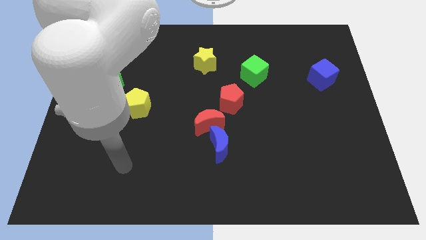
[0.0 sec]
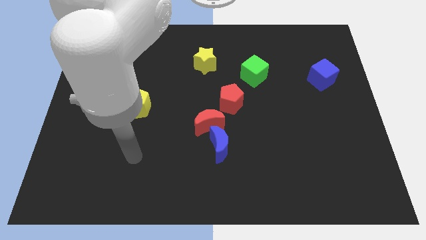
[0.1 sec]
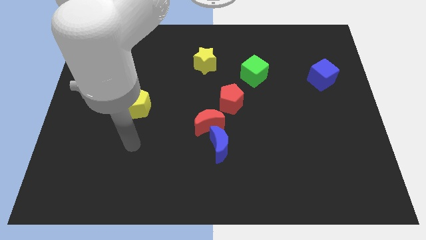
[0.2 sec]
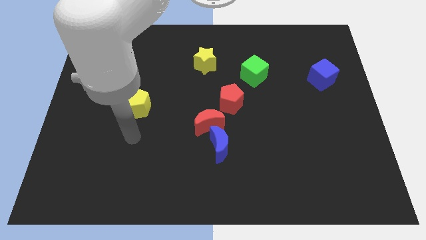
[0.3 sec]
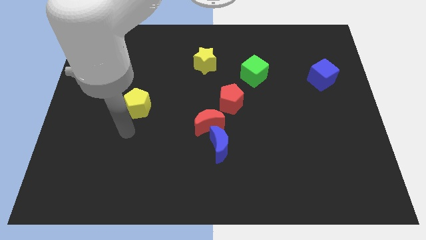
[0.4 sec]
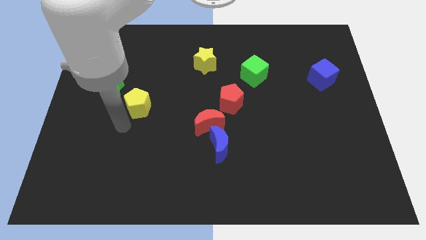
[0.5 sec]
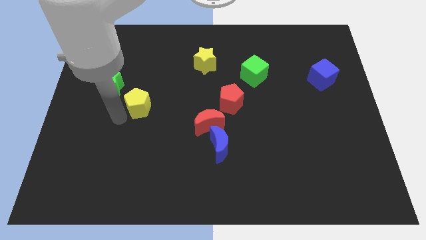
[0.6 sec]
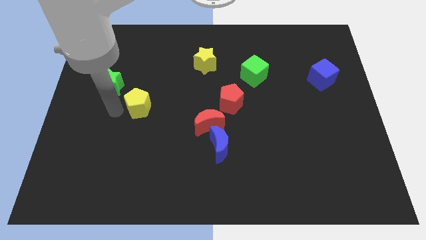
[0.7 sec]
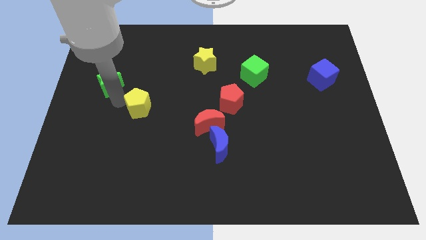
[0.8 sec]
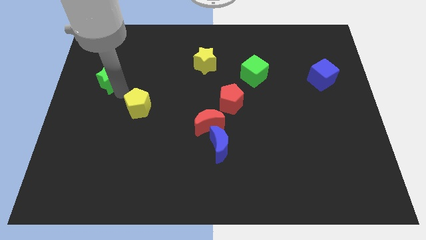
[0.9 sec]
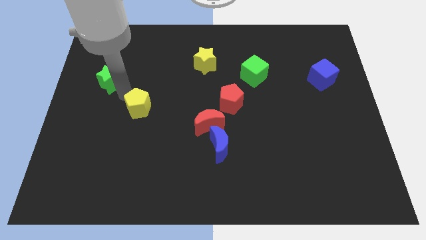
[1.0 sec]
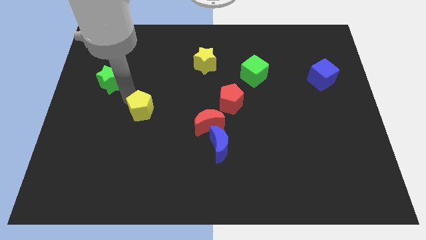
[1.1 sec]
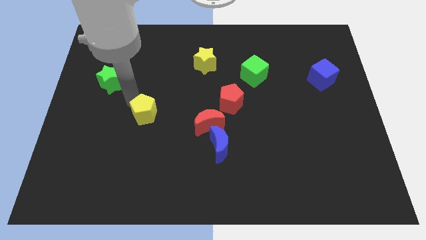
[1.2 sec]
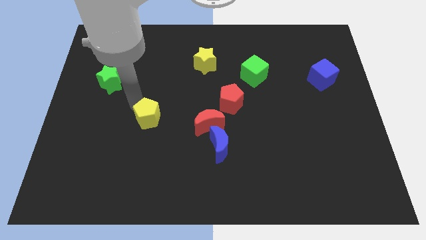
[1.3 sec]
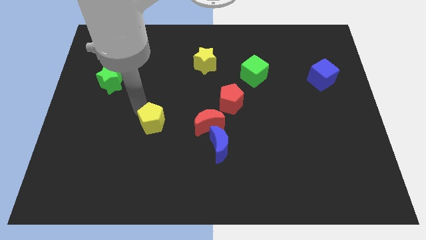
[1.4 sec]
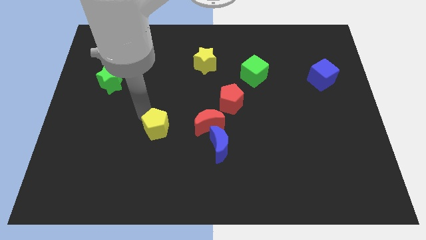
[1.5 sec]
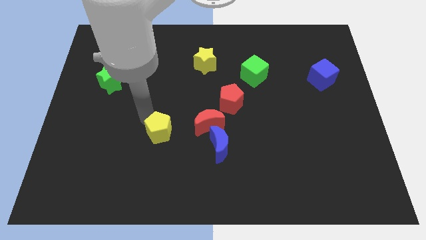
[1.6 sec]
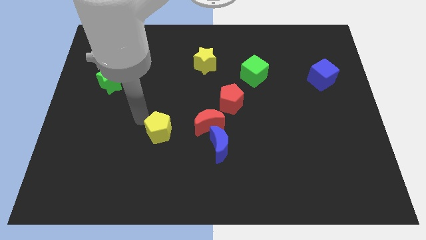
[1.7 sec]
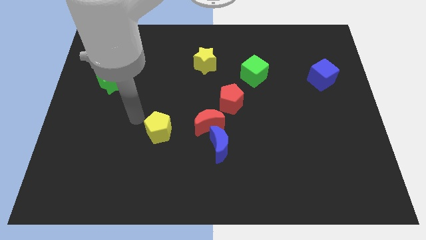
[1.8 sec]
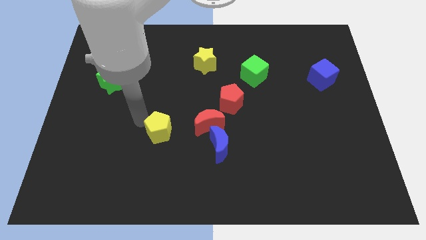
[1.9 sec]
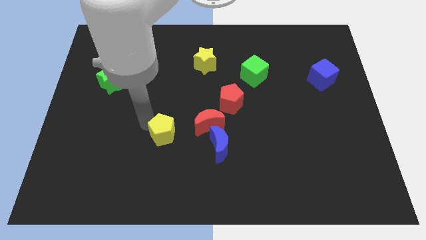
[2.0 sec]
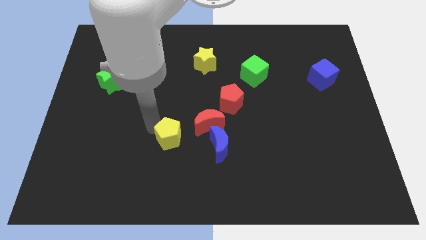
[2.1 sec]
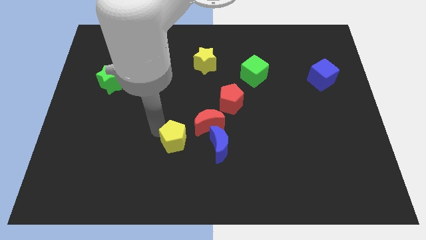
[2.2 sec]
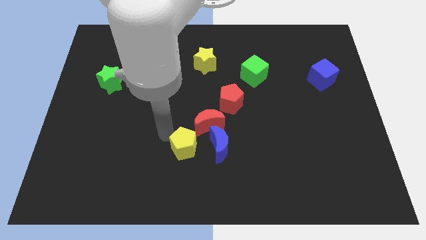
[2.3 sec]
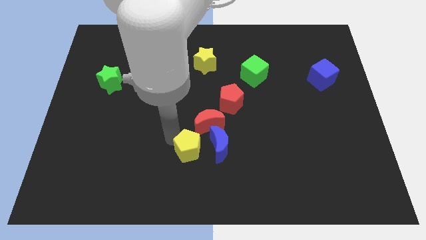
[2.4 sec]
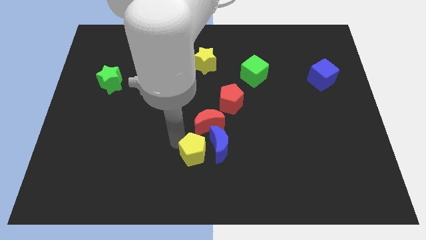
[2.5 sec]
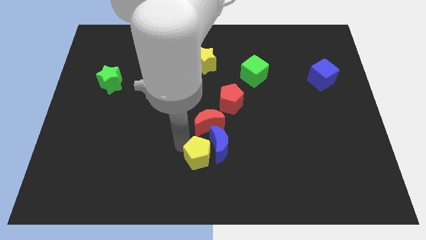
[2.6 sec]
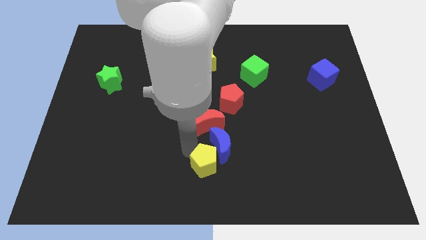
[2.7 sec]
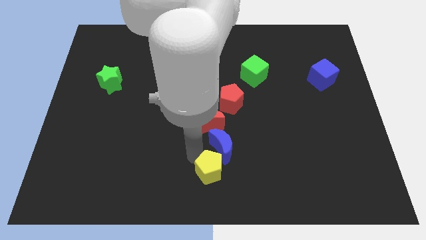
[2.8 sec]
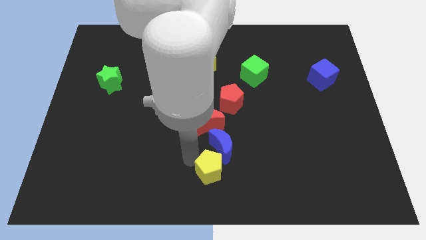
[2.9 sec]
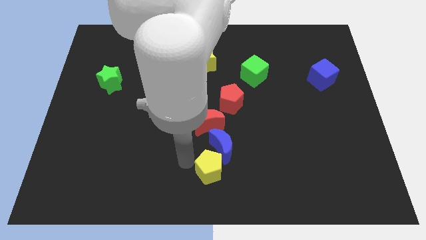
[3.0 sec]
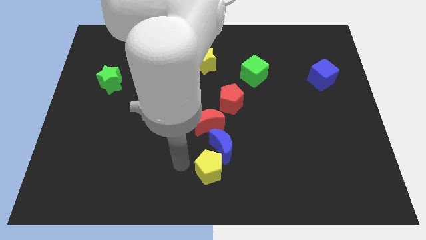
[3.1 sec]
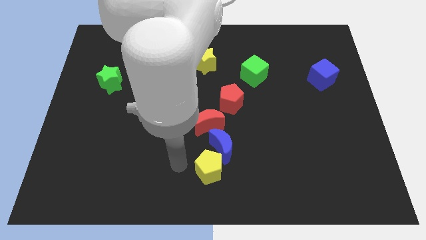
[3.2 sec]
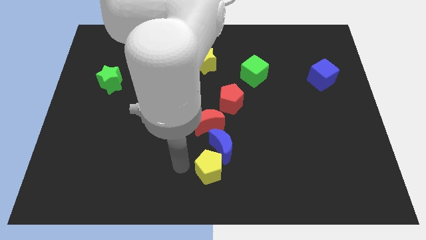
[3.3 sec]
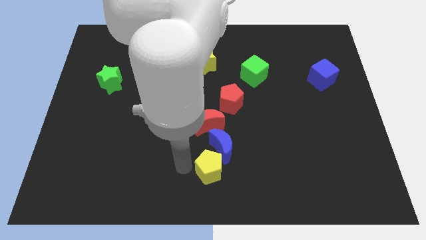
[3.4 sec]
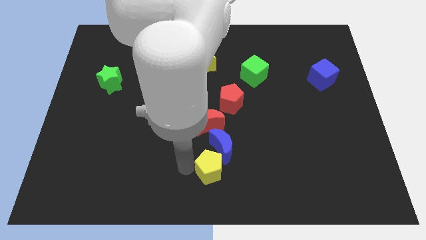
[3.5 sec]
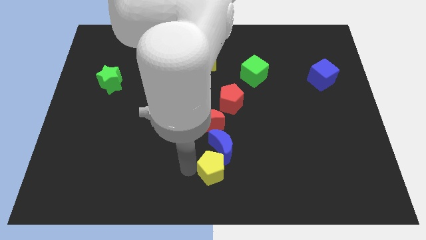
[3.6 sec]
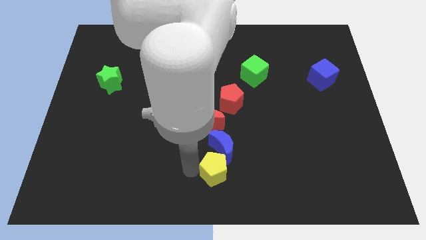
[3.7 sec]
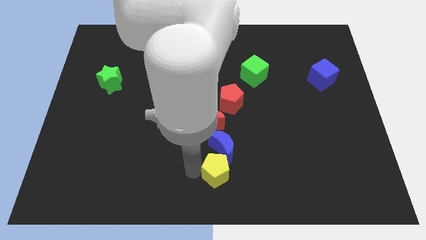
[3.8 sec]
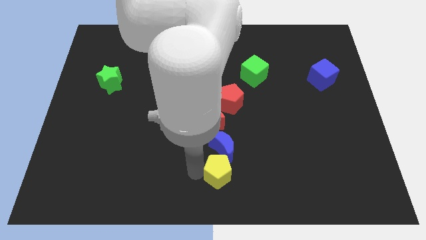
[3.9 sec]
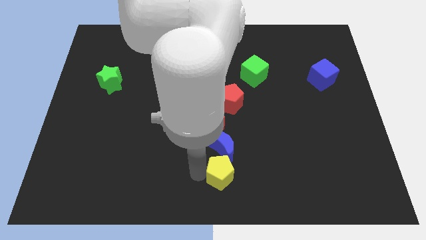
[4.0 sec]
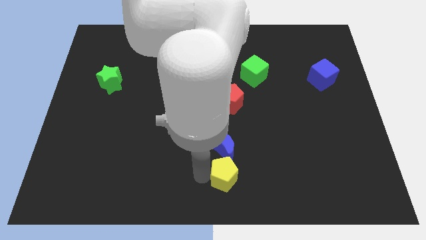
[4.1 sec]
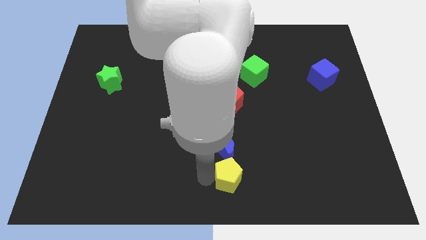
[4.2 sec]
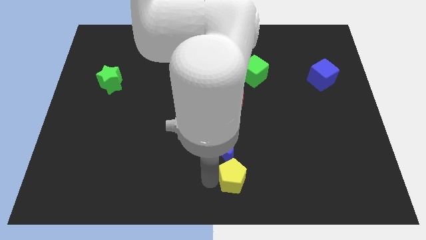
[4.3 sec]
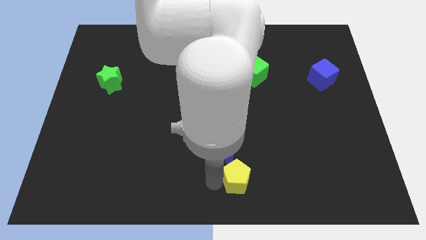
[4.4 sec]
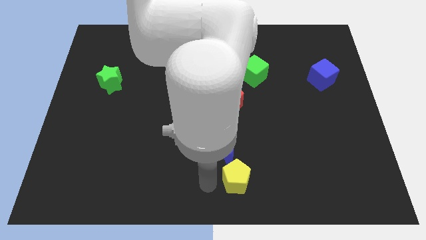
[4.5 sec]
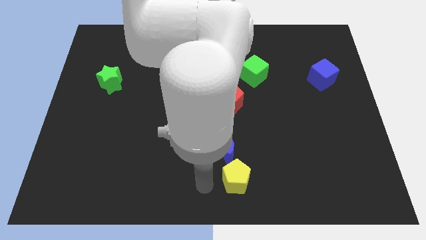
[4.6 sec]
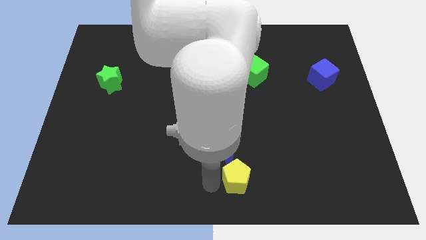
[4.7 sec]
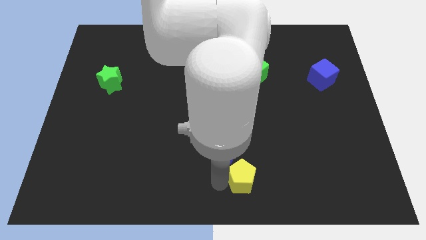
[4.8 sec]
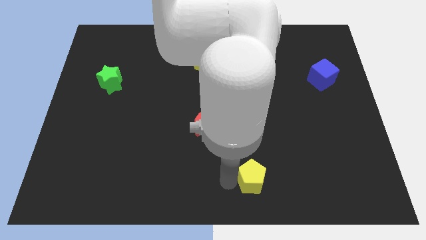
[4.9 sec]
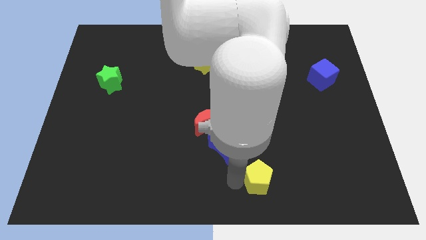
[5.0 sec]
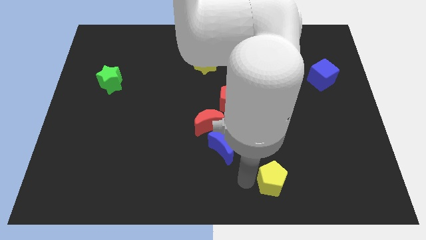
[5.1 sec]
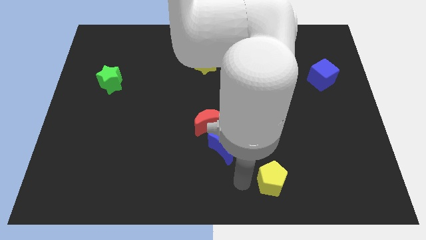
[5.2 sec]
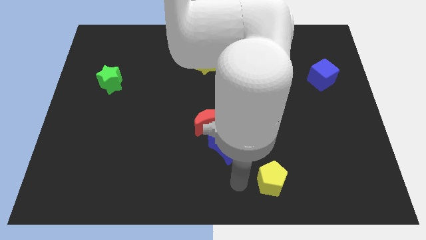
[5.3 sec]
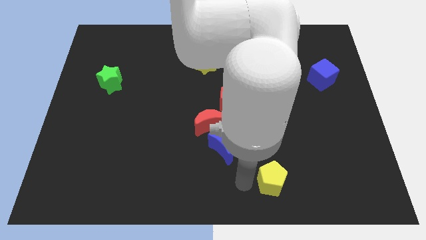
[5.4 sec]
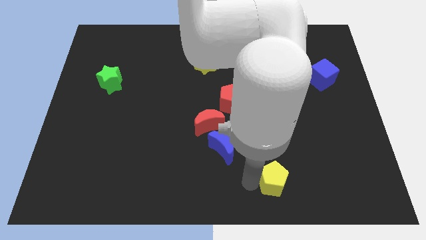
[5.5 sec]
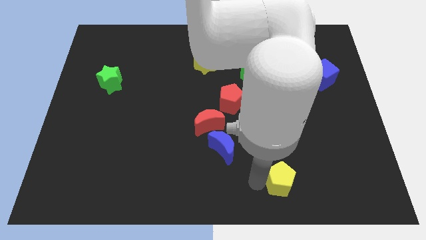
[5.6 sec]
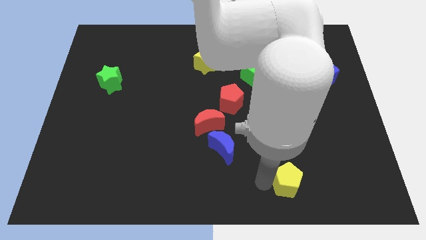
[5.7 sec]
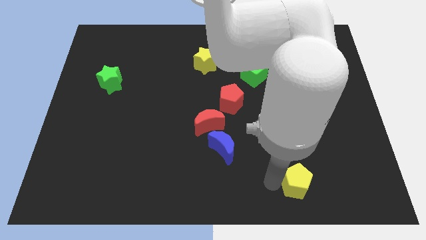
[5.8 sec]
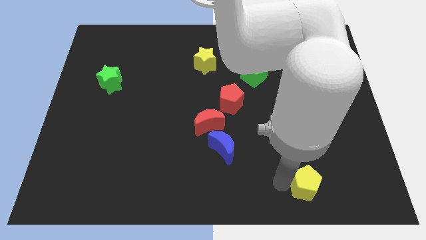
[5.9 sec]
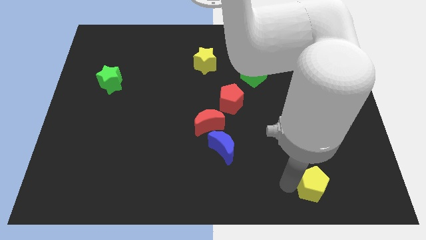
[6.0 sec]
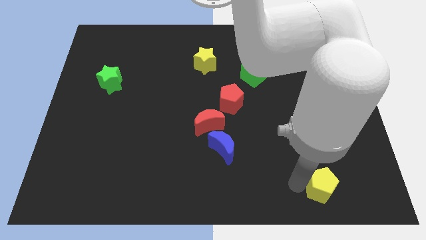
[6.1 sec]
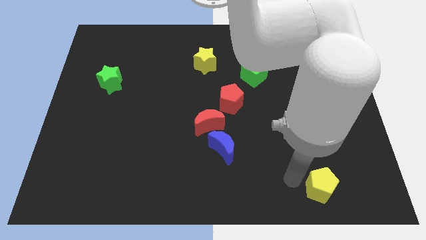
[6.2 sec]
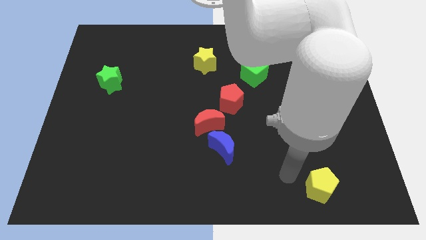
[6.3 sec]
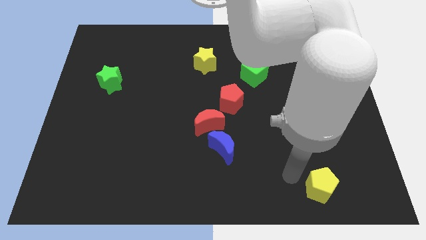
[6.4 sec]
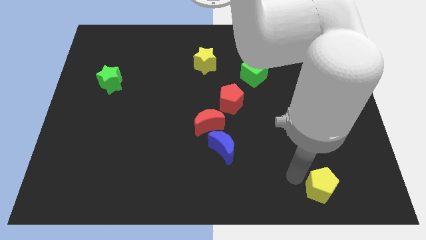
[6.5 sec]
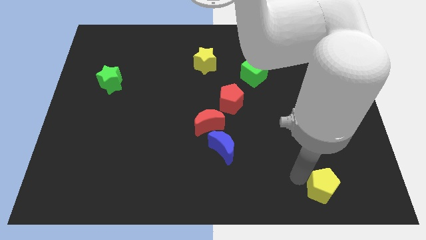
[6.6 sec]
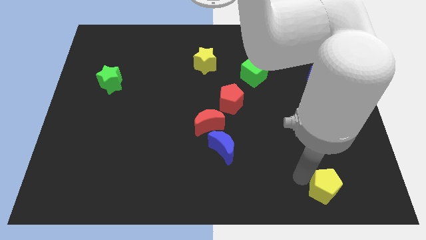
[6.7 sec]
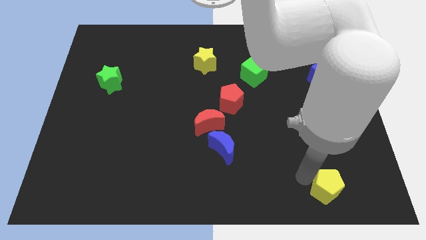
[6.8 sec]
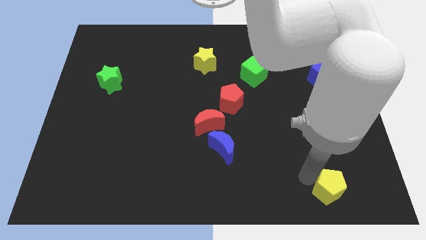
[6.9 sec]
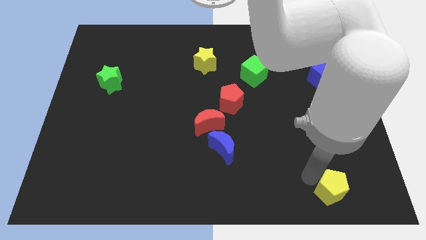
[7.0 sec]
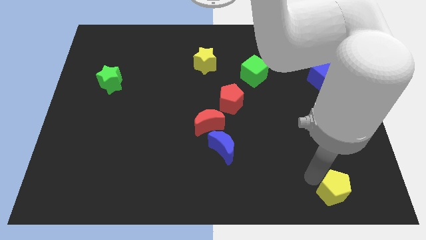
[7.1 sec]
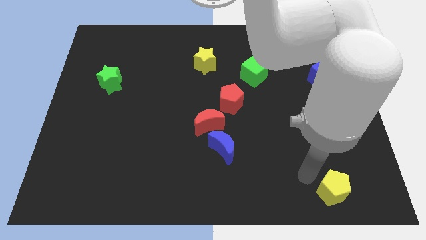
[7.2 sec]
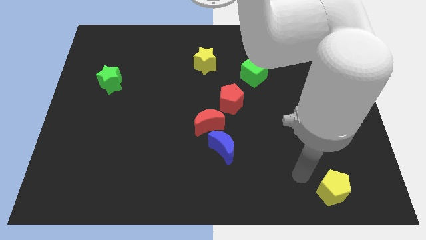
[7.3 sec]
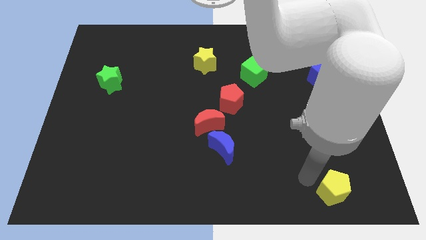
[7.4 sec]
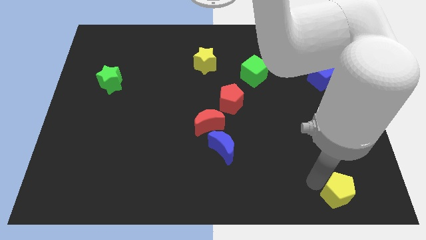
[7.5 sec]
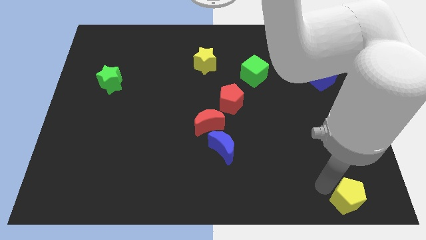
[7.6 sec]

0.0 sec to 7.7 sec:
push the yellow pentagon to the lower right corner
